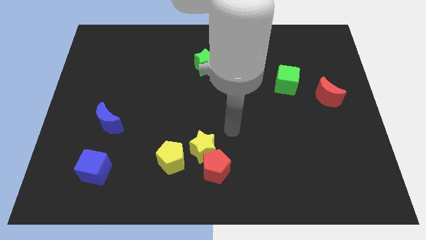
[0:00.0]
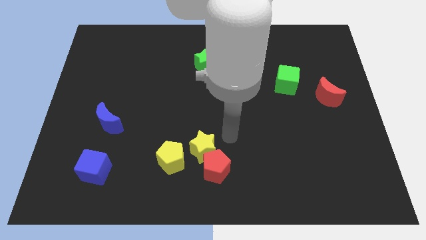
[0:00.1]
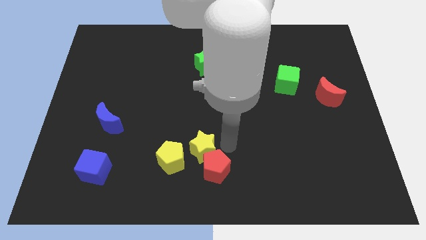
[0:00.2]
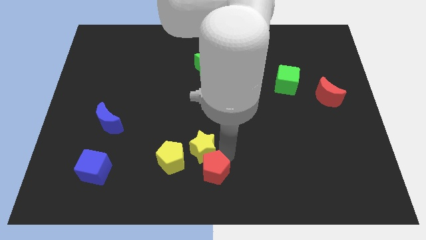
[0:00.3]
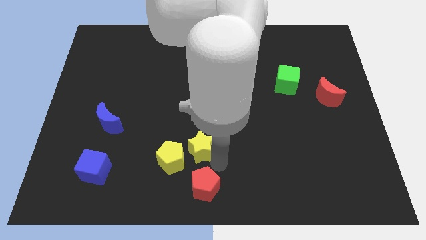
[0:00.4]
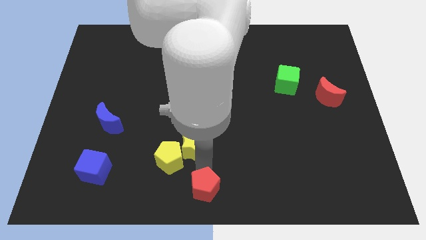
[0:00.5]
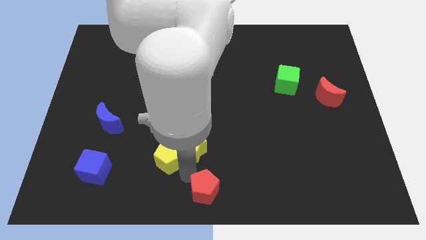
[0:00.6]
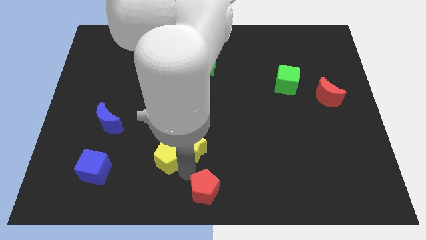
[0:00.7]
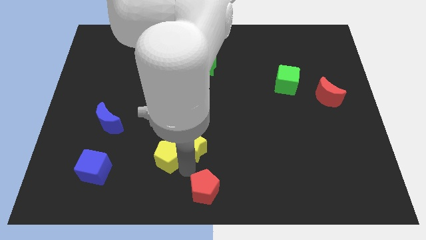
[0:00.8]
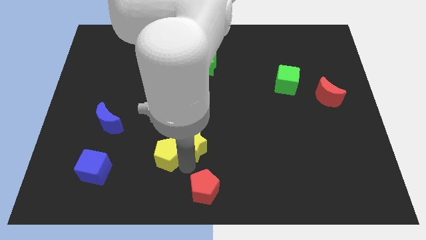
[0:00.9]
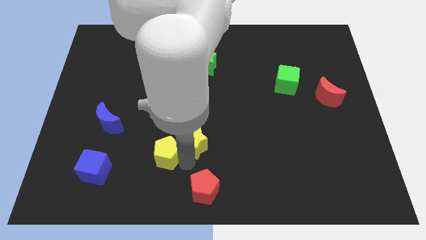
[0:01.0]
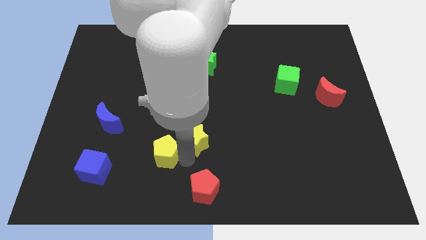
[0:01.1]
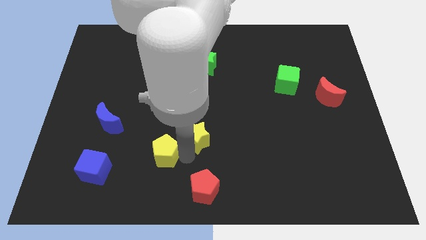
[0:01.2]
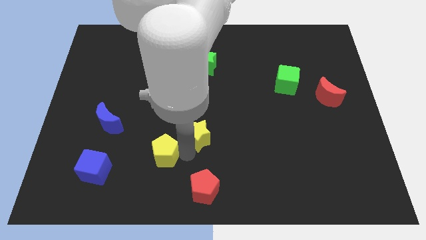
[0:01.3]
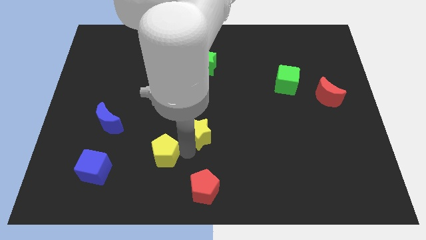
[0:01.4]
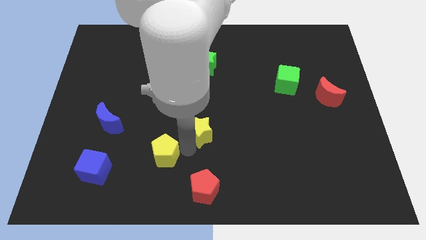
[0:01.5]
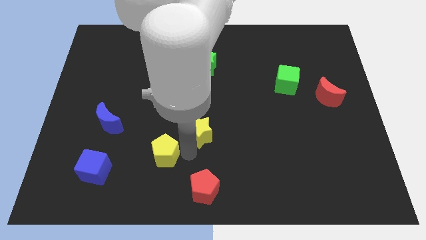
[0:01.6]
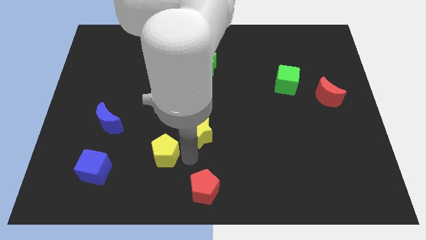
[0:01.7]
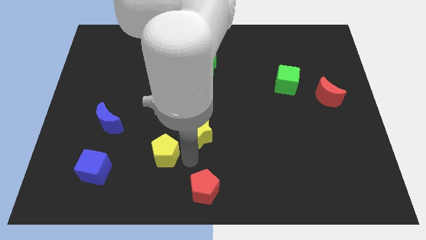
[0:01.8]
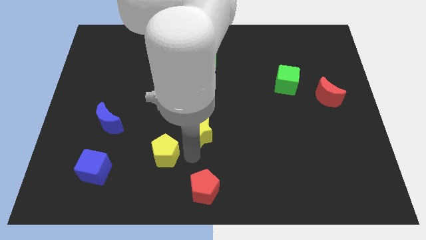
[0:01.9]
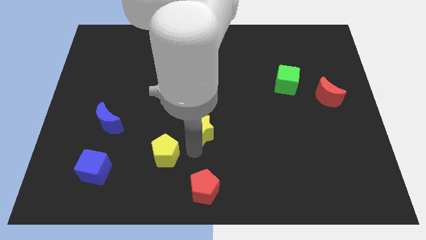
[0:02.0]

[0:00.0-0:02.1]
separate the yellow star from the red pentagon and yellow pentagon

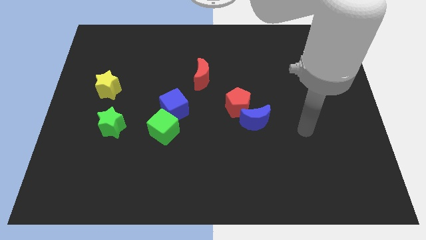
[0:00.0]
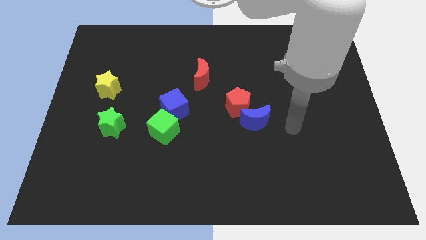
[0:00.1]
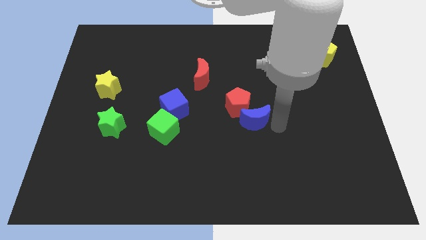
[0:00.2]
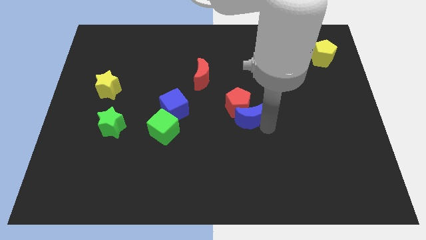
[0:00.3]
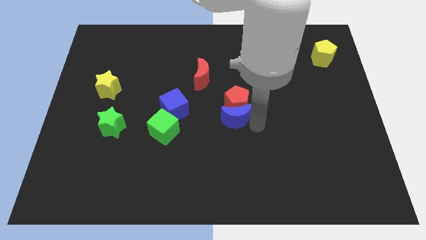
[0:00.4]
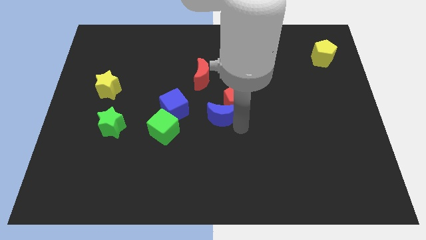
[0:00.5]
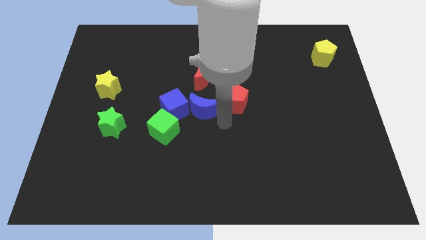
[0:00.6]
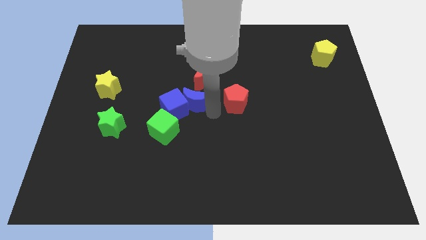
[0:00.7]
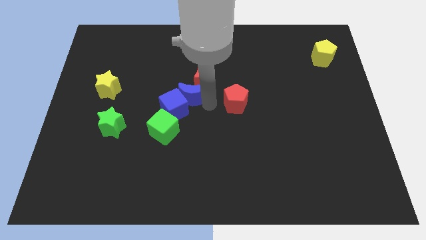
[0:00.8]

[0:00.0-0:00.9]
separate the red pentagon from the blue moon

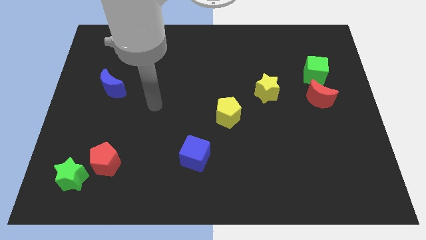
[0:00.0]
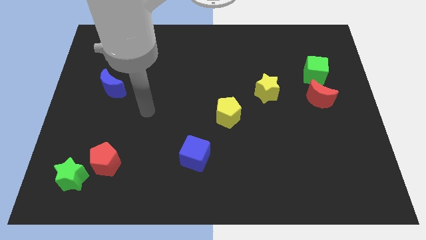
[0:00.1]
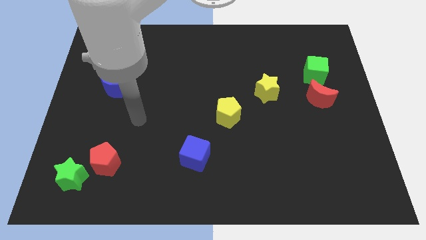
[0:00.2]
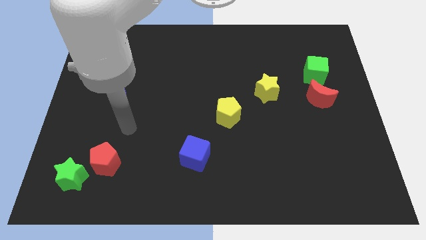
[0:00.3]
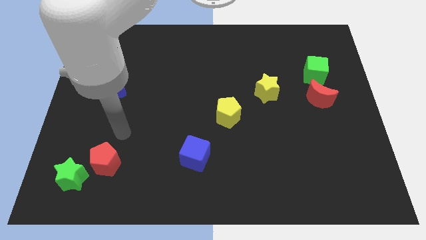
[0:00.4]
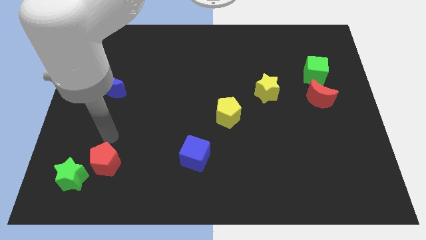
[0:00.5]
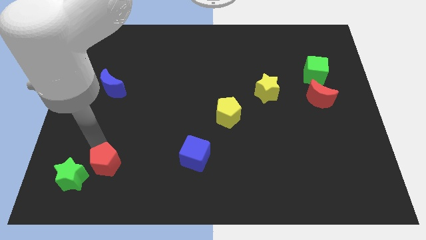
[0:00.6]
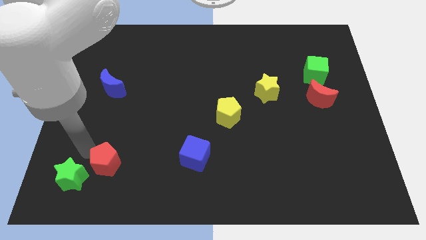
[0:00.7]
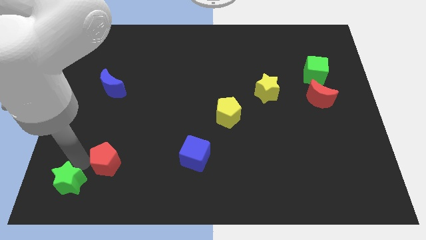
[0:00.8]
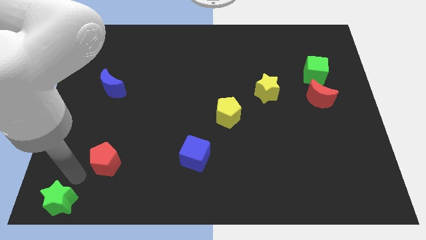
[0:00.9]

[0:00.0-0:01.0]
pull the red pentagon apart from the green star

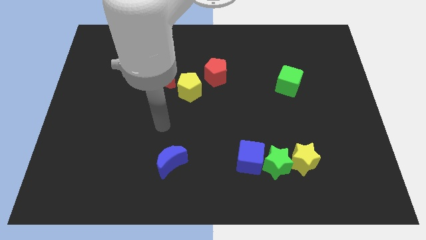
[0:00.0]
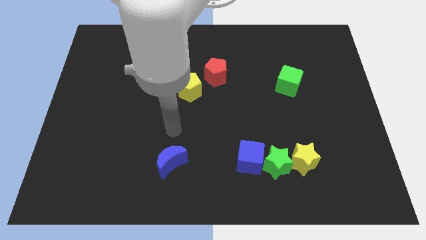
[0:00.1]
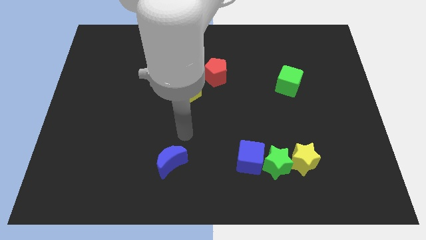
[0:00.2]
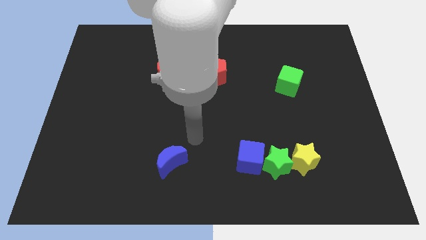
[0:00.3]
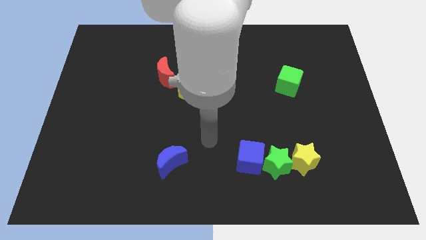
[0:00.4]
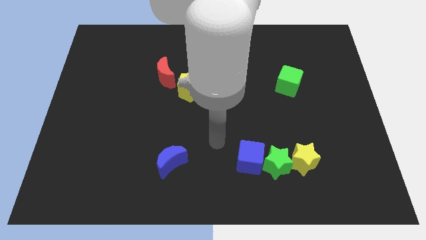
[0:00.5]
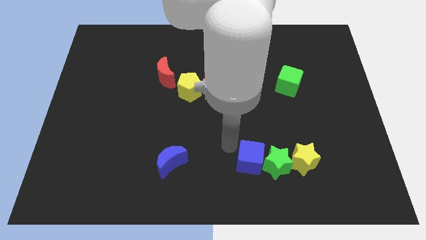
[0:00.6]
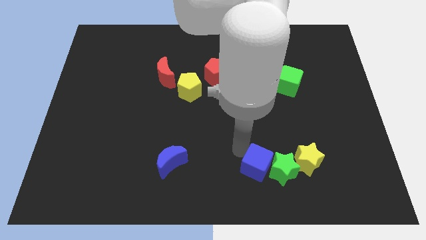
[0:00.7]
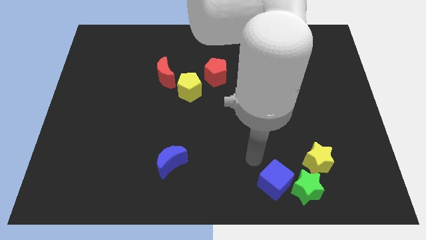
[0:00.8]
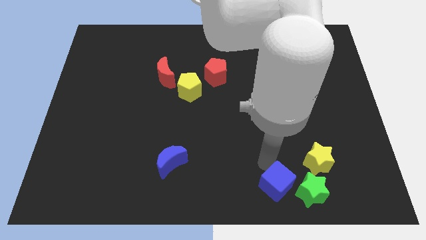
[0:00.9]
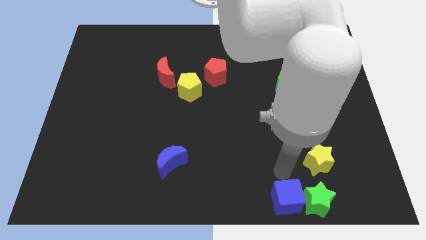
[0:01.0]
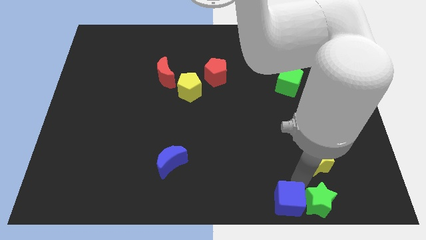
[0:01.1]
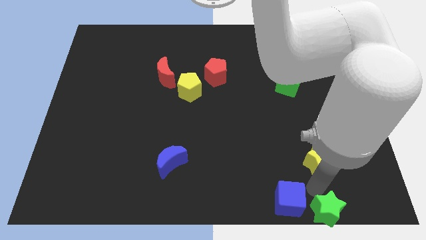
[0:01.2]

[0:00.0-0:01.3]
pull the yellow star apart from the green star

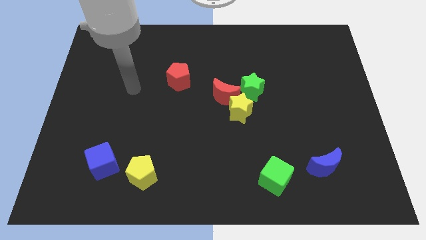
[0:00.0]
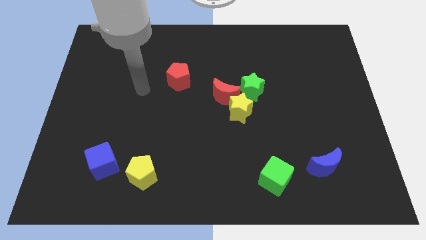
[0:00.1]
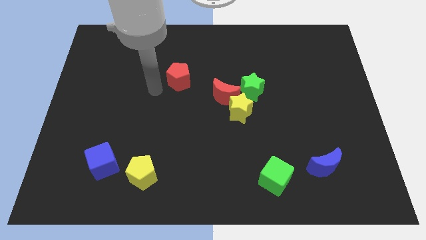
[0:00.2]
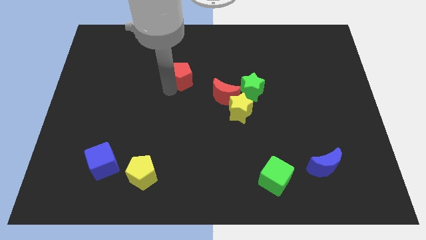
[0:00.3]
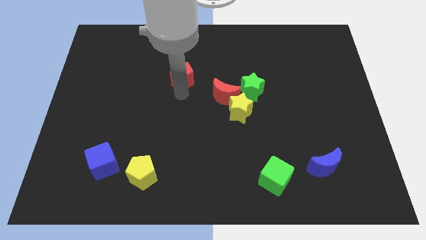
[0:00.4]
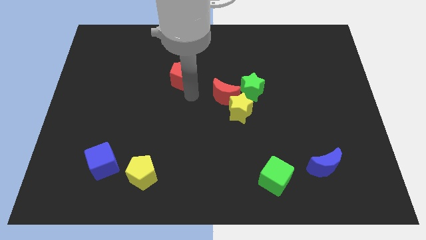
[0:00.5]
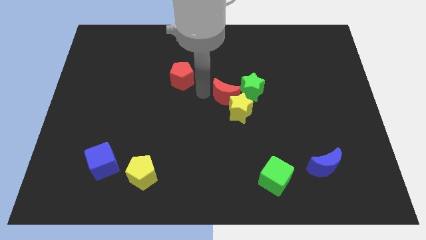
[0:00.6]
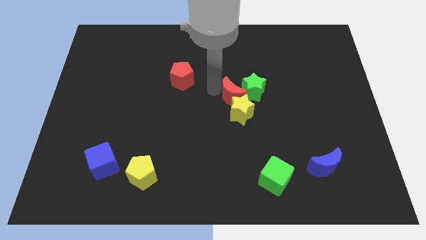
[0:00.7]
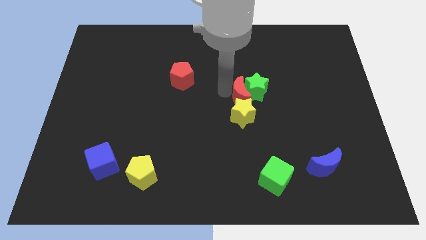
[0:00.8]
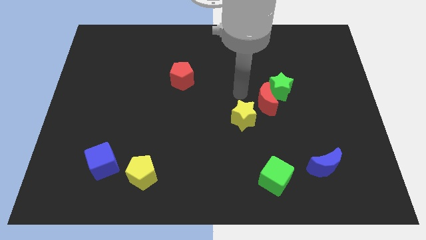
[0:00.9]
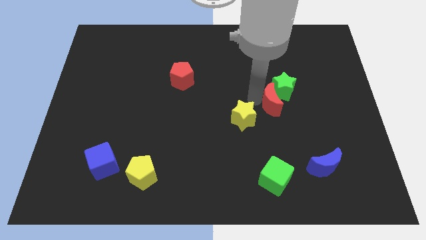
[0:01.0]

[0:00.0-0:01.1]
move the yellow star away from the red moon and green star

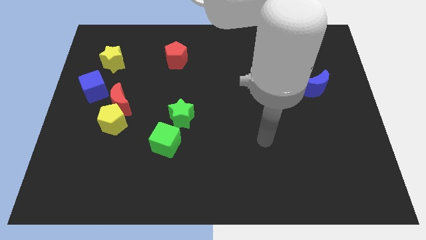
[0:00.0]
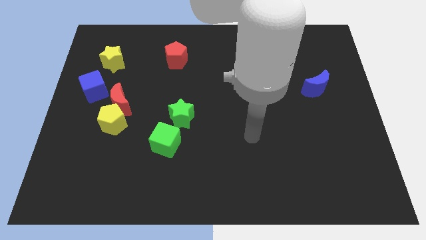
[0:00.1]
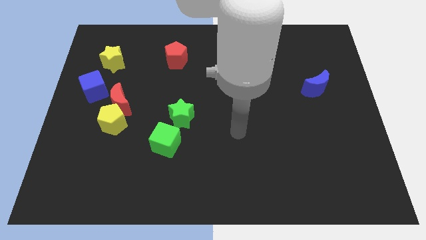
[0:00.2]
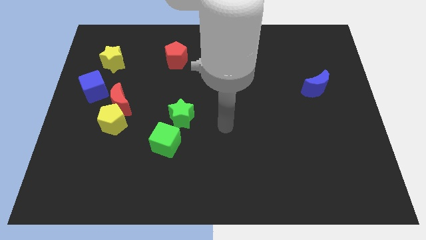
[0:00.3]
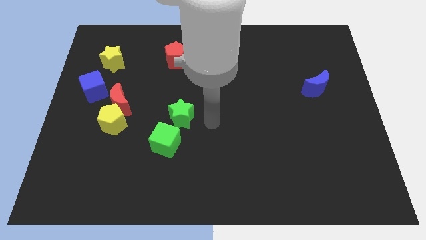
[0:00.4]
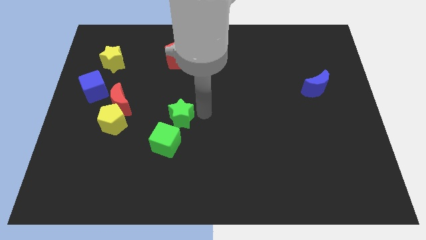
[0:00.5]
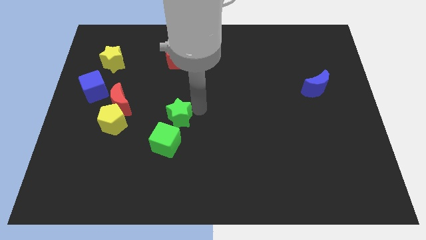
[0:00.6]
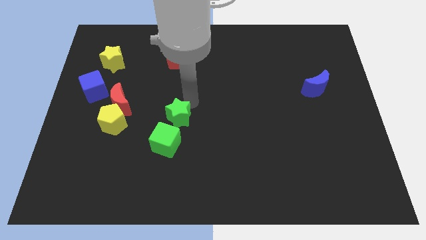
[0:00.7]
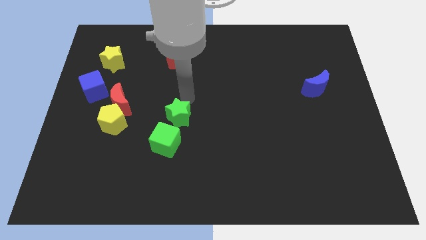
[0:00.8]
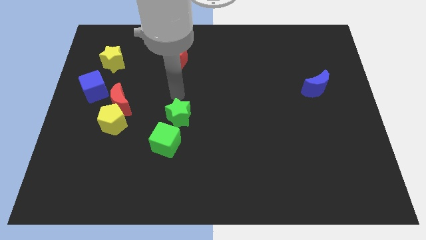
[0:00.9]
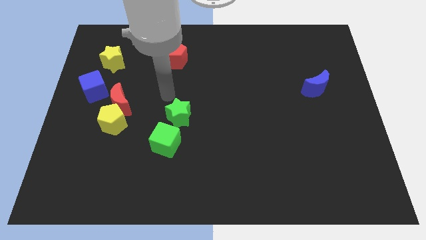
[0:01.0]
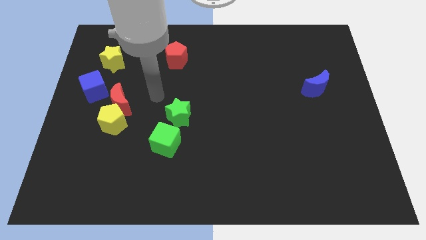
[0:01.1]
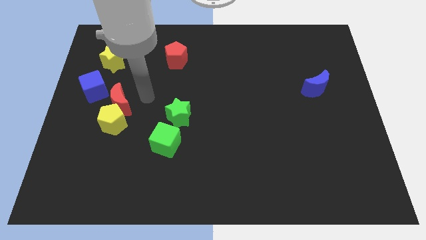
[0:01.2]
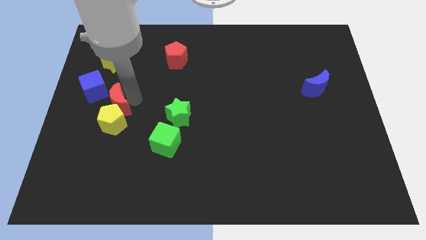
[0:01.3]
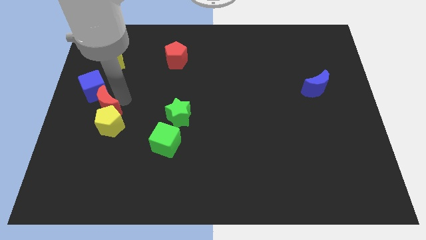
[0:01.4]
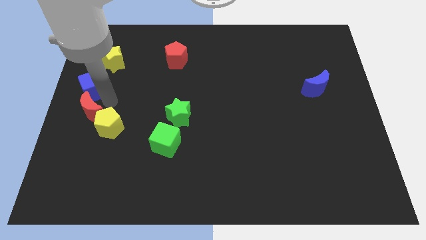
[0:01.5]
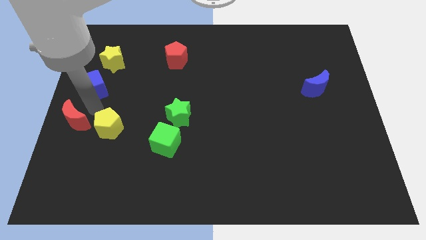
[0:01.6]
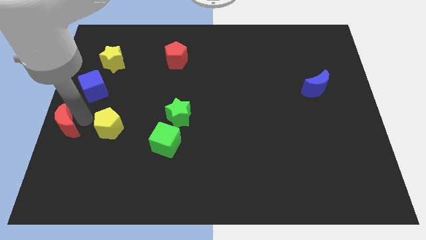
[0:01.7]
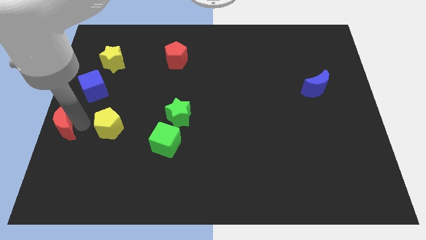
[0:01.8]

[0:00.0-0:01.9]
move the yellow pentagon away from the red moon

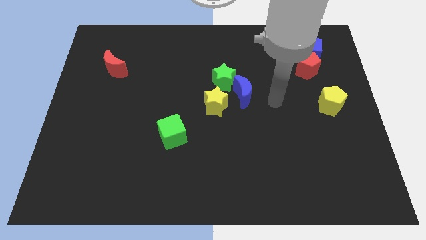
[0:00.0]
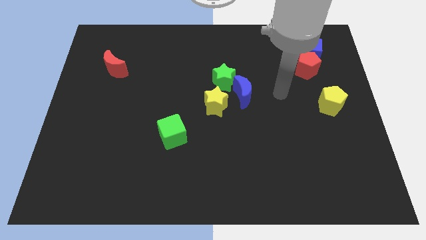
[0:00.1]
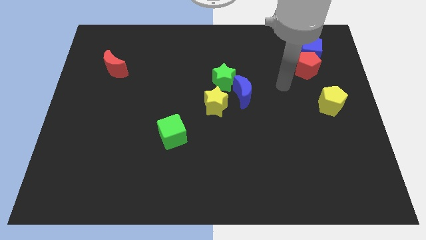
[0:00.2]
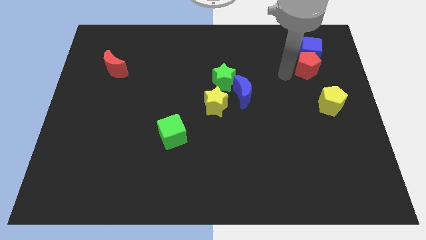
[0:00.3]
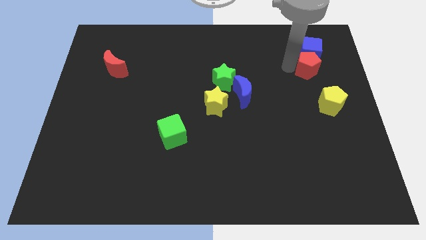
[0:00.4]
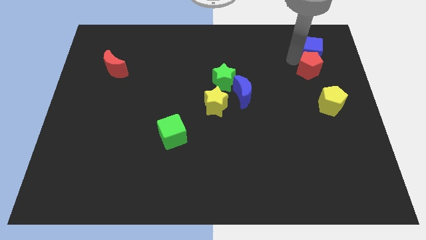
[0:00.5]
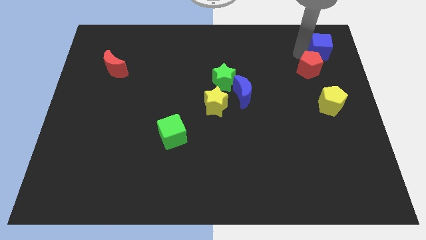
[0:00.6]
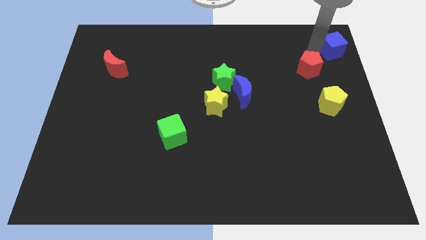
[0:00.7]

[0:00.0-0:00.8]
pull the red pentagon apart from the blue cube

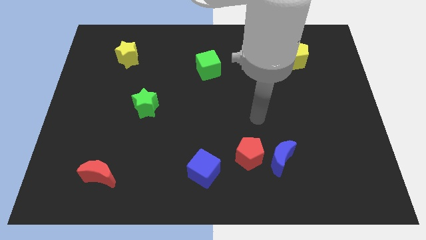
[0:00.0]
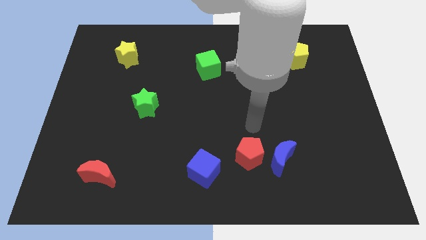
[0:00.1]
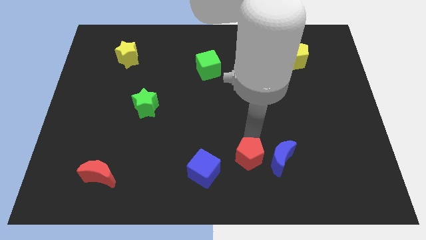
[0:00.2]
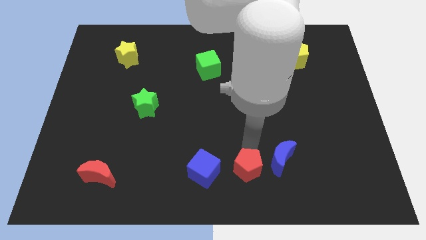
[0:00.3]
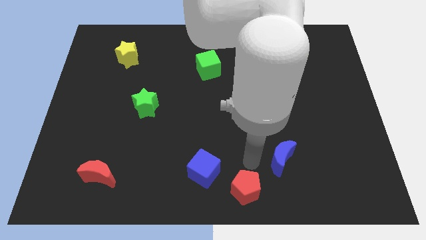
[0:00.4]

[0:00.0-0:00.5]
pull the blue moon apart from the red pentagon
